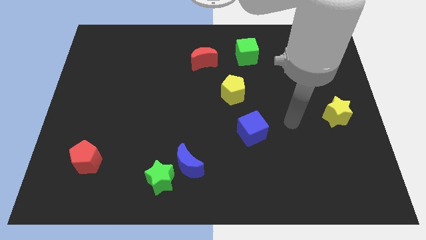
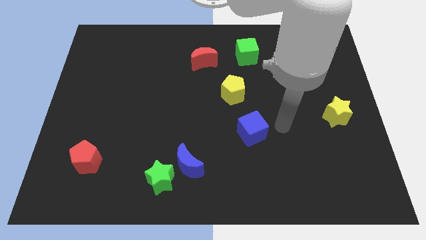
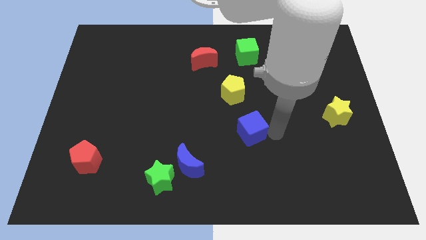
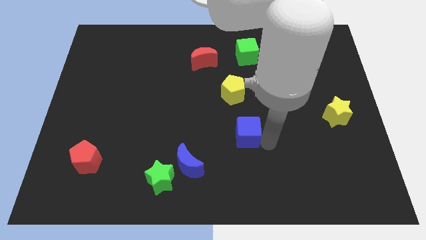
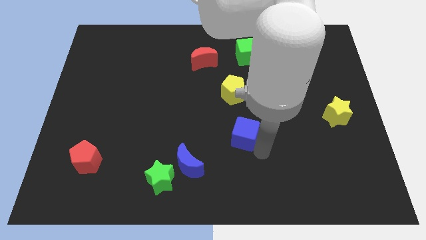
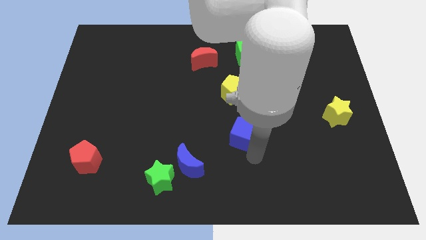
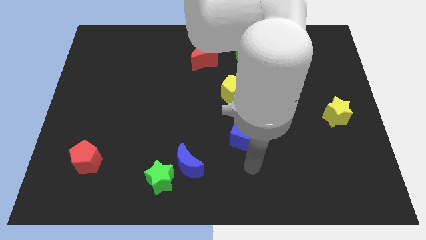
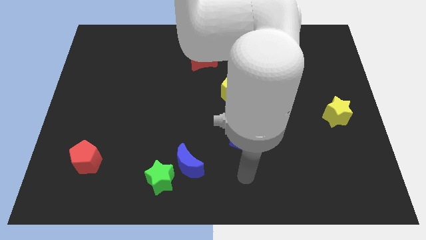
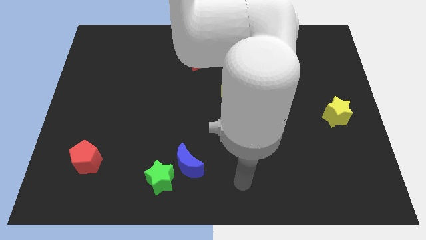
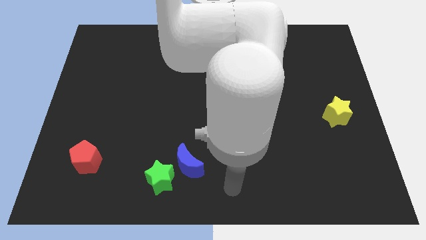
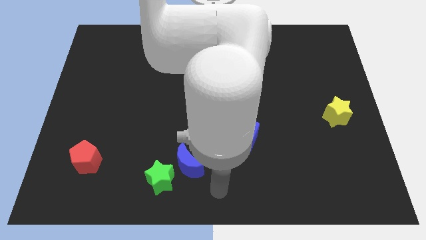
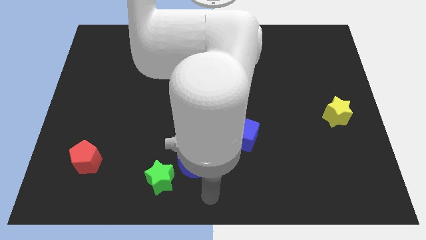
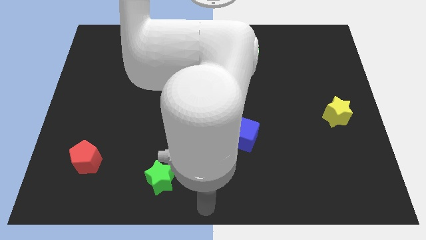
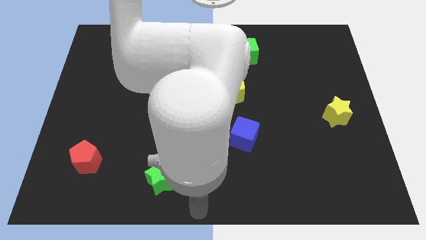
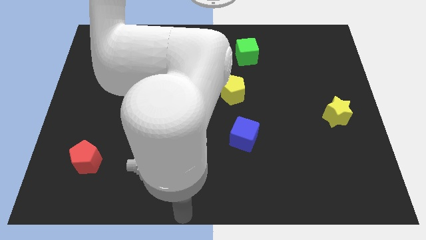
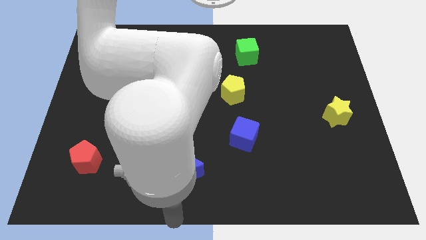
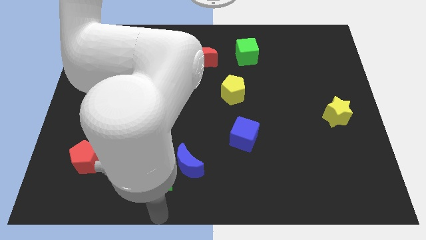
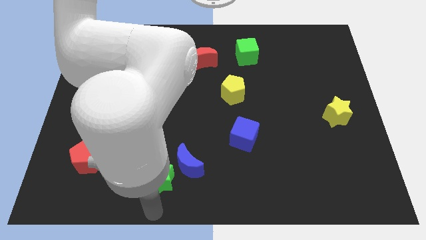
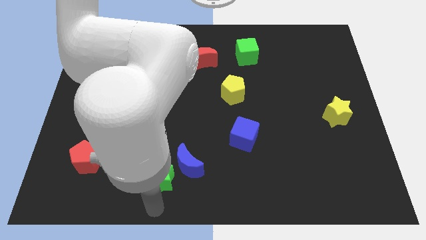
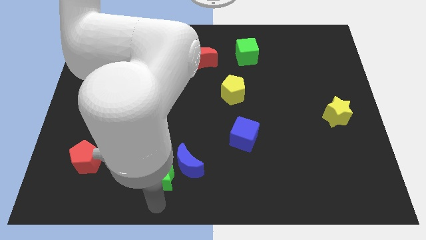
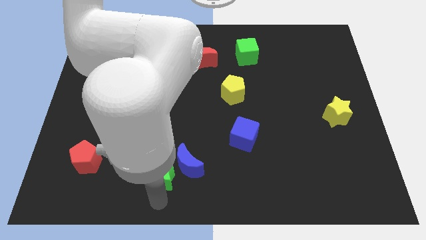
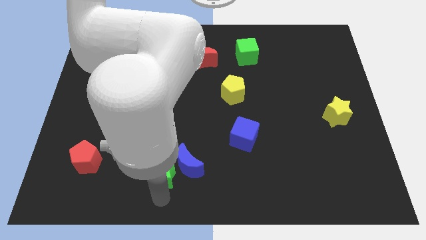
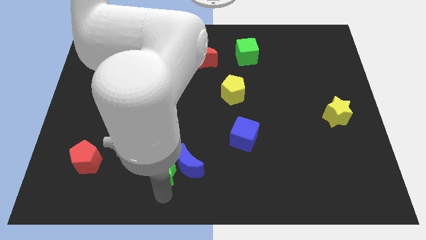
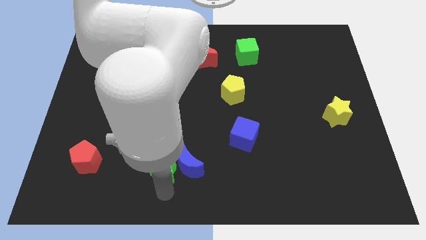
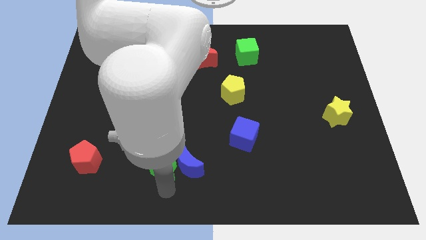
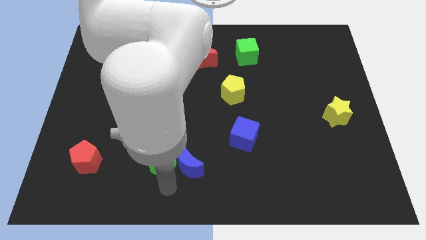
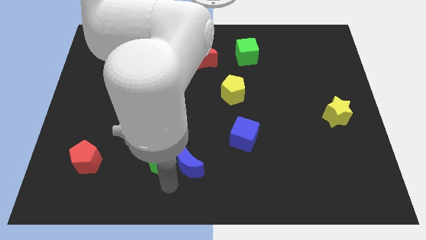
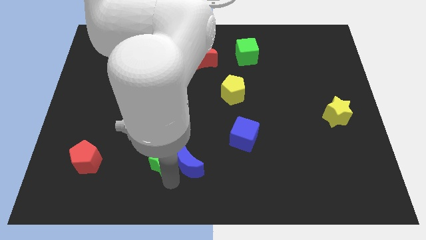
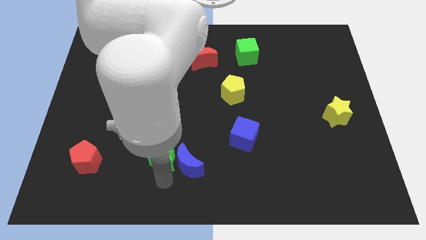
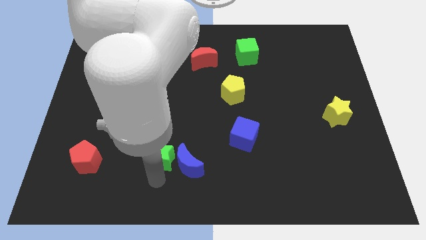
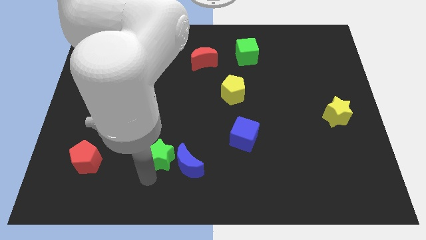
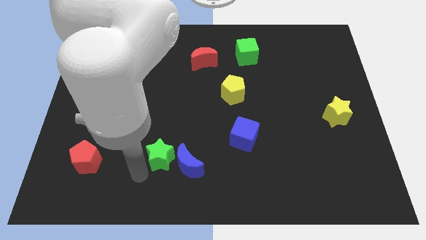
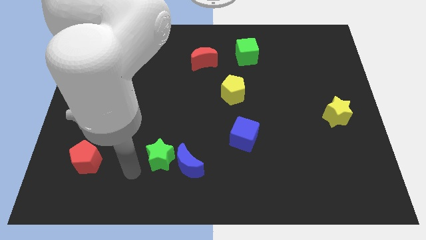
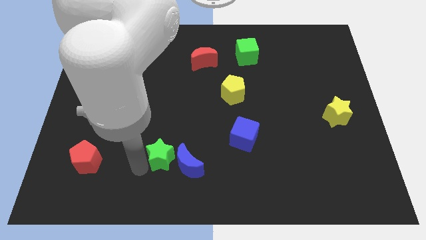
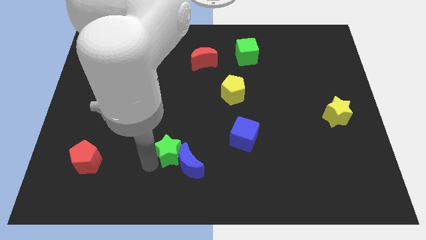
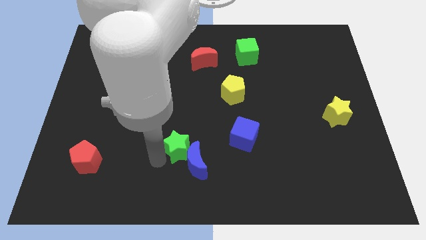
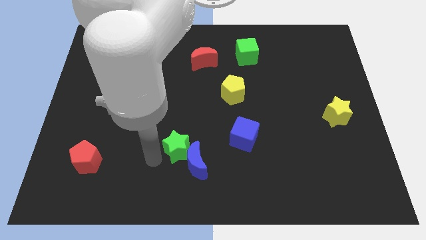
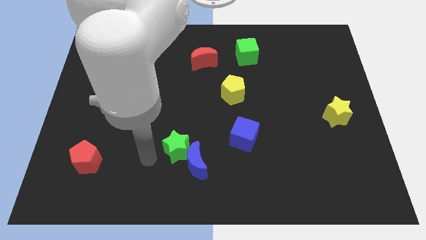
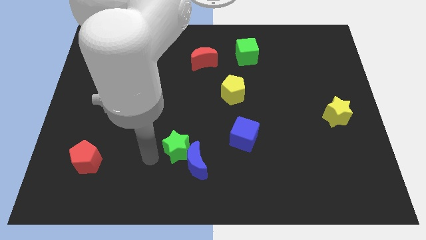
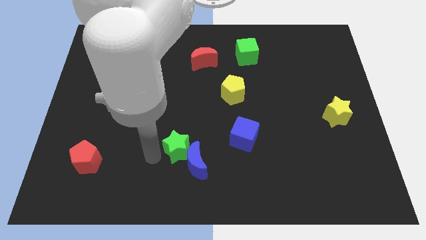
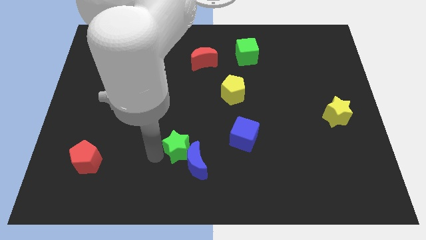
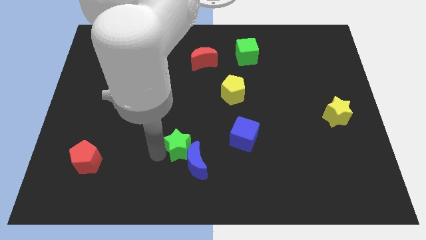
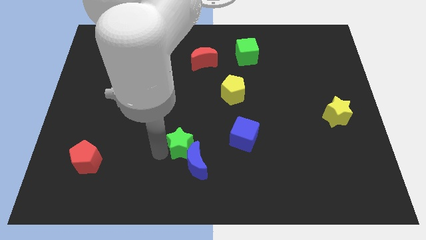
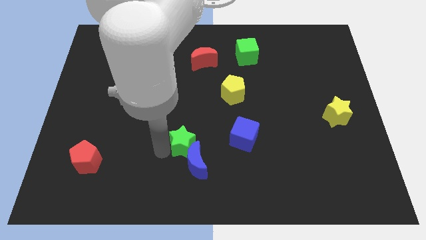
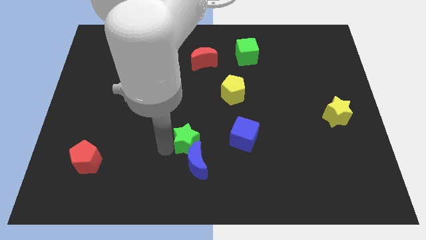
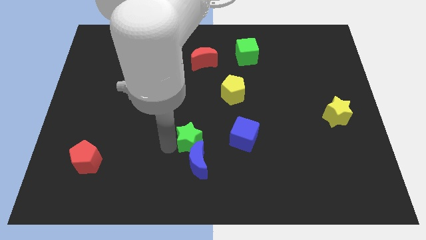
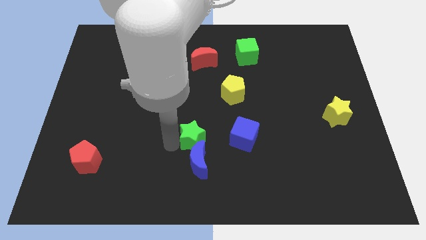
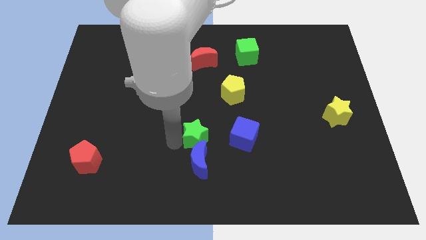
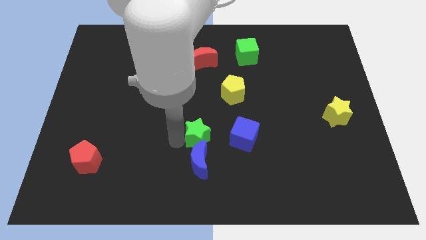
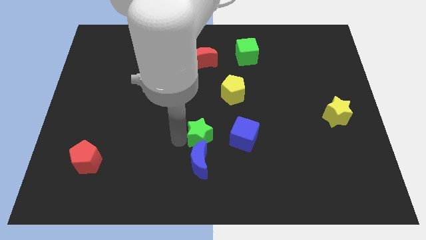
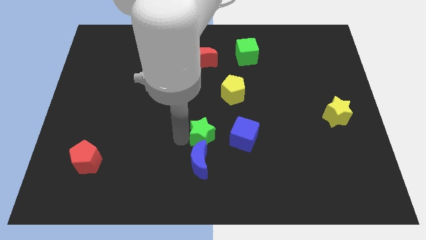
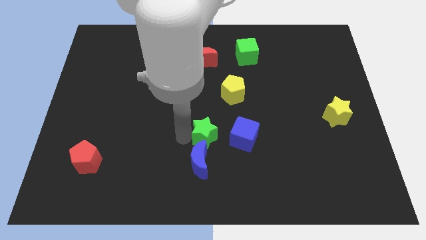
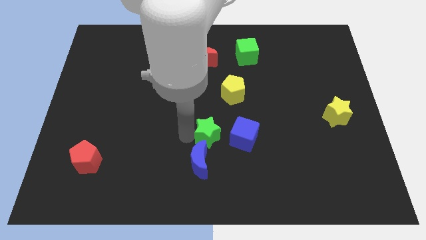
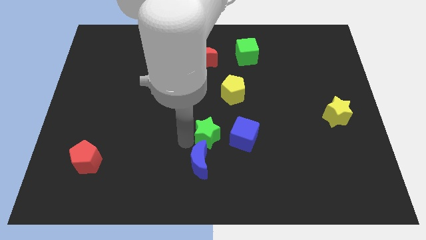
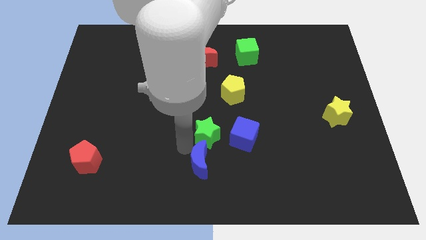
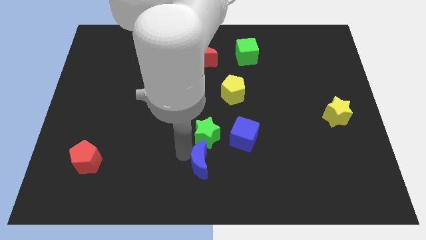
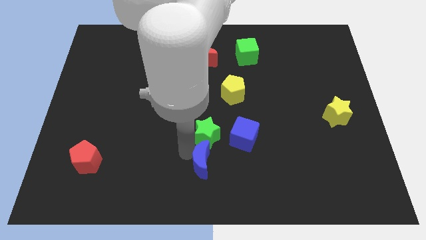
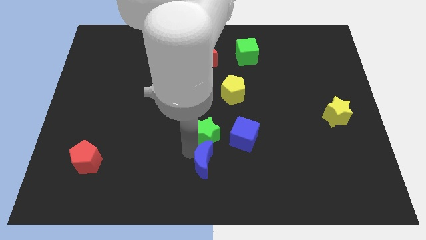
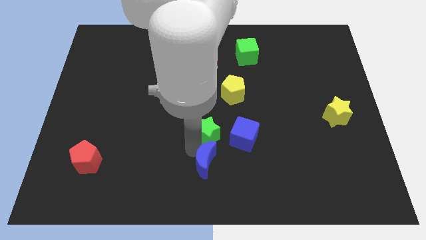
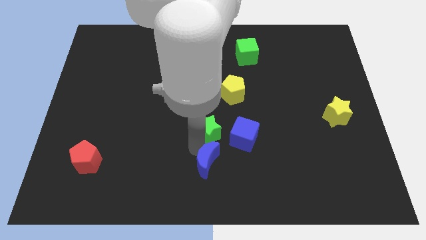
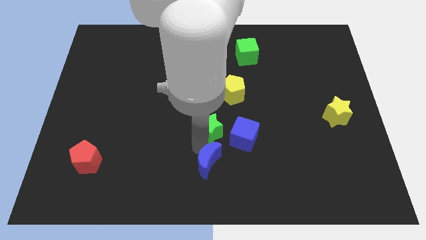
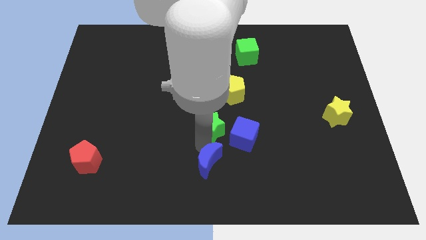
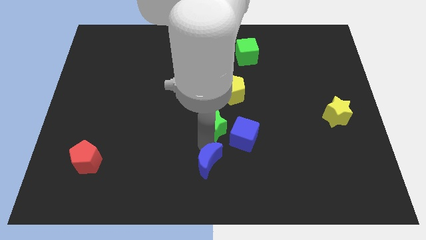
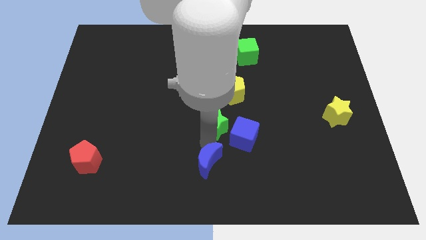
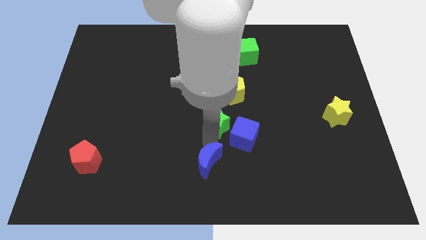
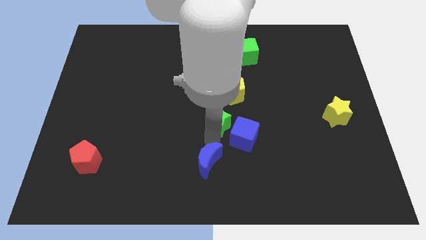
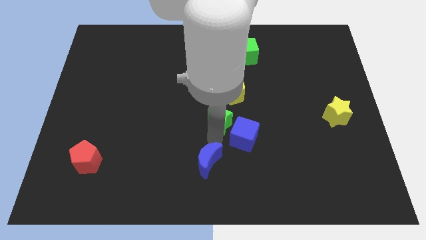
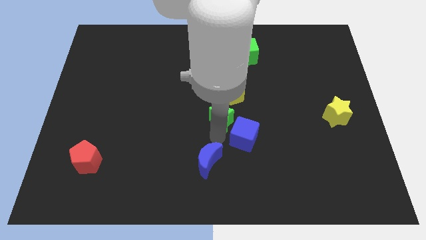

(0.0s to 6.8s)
push the green star to the top side of the blue cube
